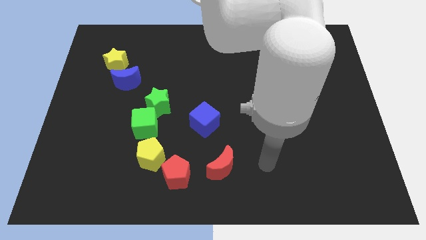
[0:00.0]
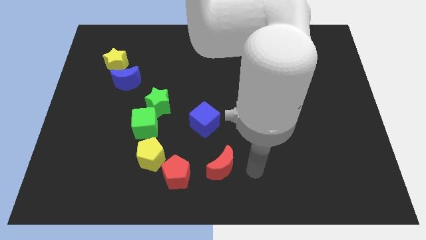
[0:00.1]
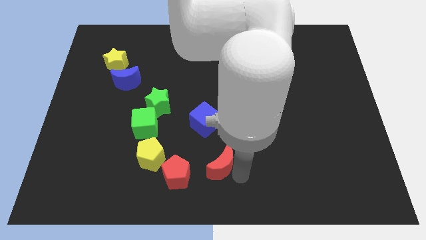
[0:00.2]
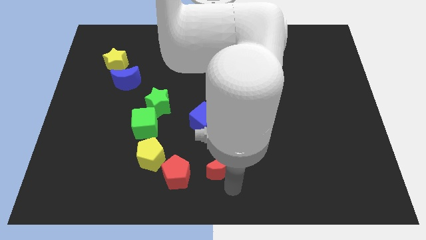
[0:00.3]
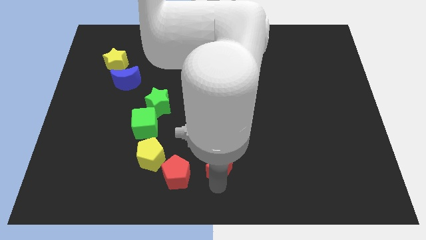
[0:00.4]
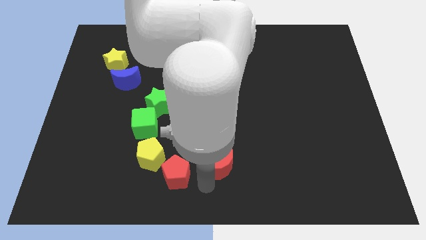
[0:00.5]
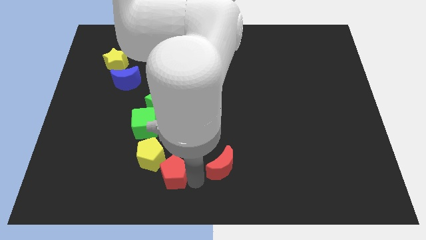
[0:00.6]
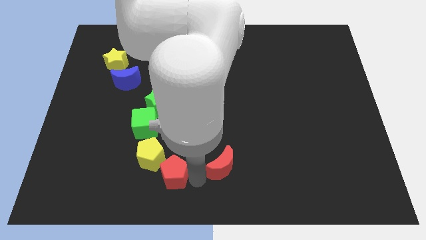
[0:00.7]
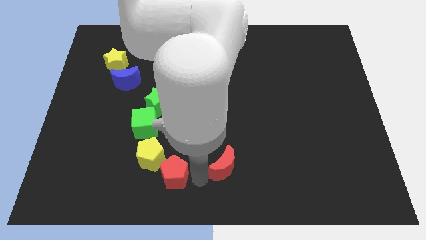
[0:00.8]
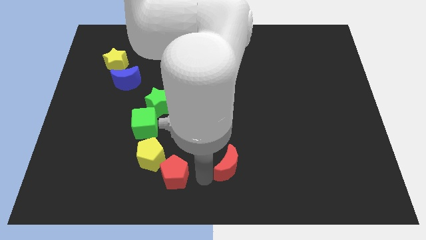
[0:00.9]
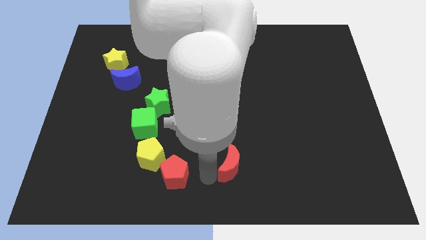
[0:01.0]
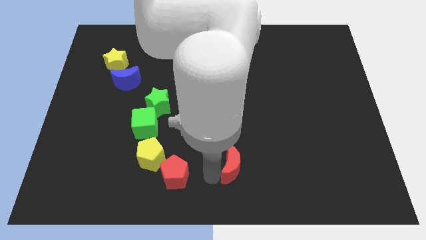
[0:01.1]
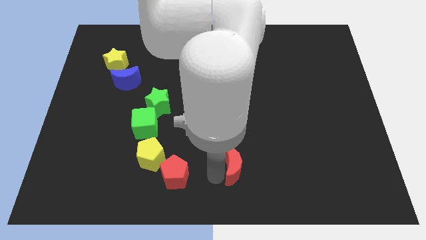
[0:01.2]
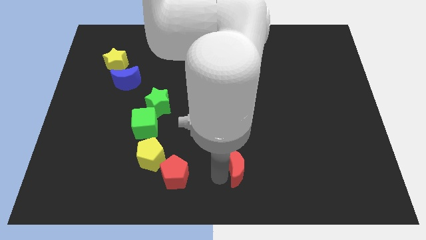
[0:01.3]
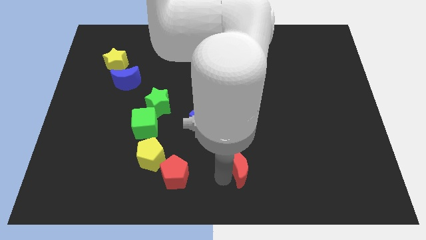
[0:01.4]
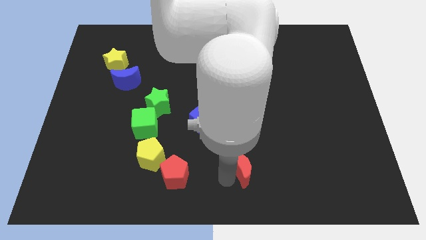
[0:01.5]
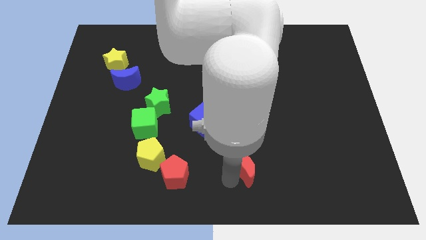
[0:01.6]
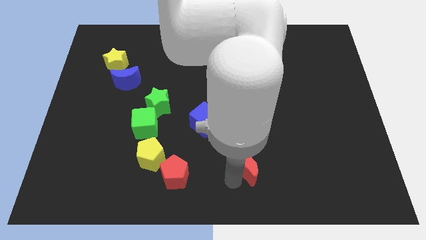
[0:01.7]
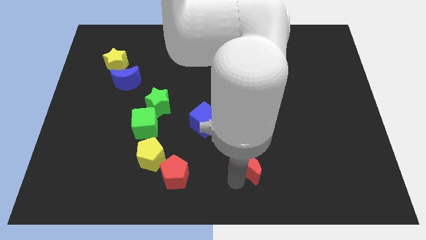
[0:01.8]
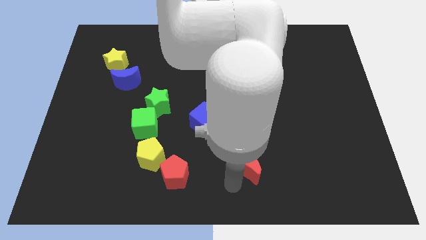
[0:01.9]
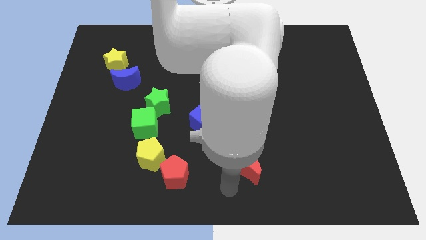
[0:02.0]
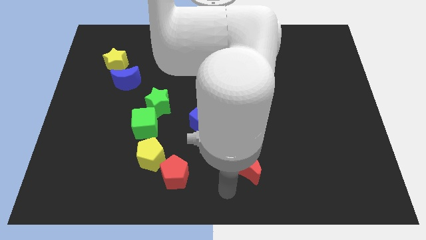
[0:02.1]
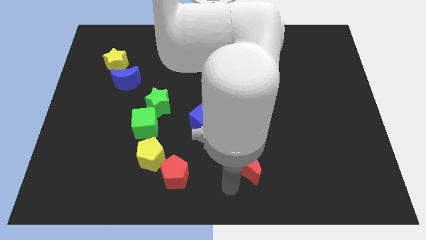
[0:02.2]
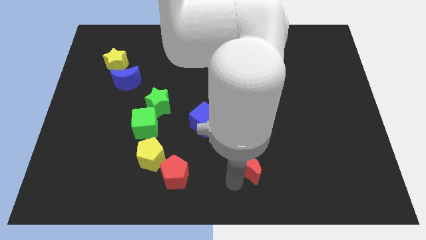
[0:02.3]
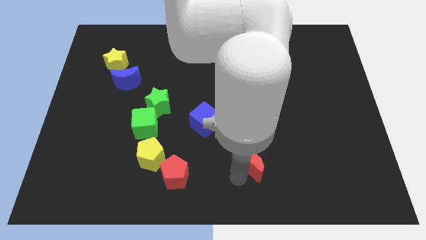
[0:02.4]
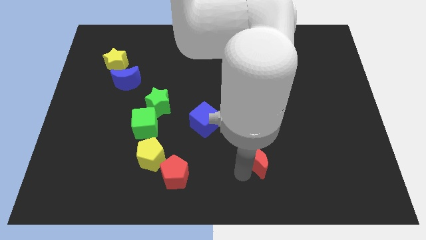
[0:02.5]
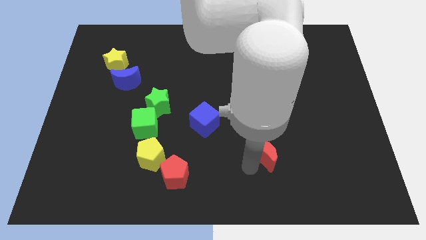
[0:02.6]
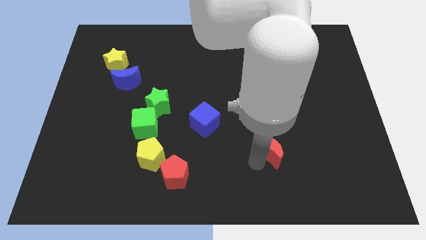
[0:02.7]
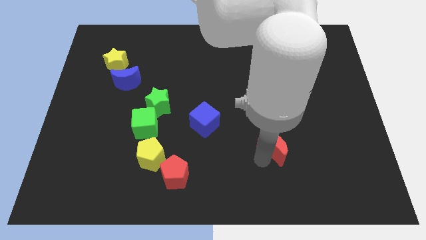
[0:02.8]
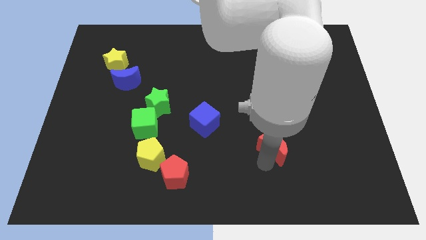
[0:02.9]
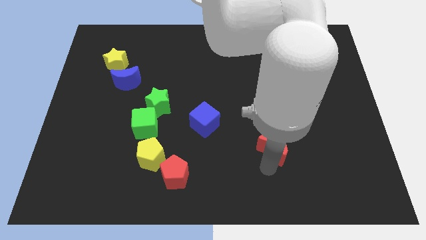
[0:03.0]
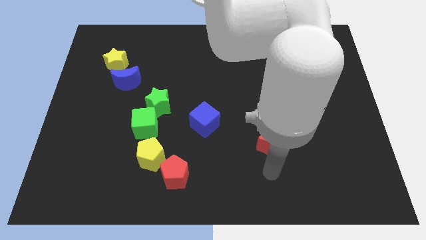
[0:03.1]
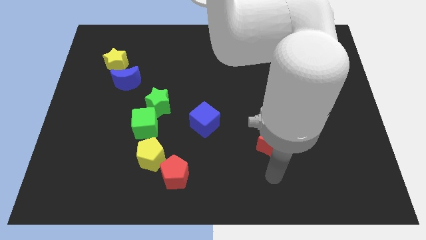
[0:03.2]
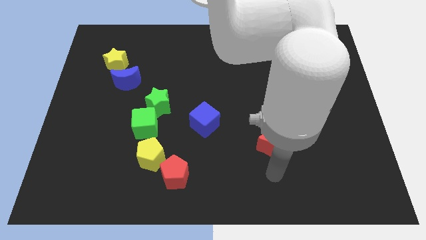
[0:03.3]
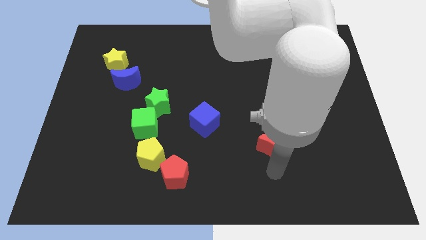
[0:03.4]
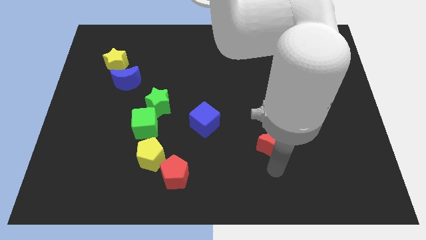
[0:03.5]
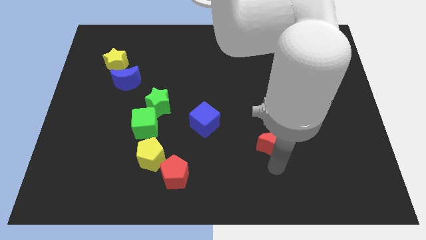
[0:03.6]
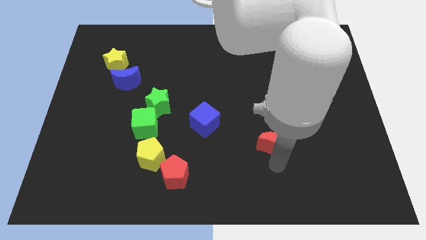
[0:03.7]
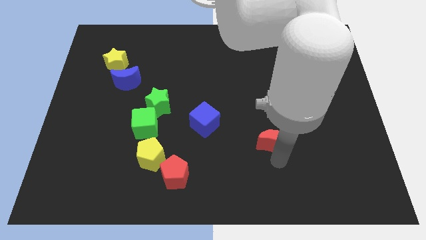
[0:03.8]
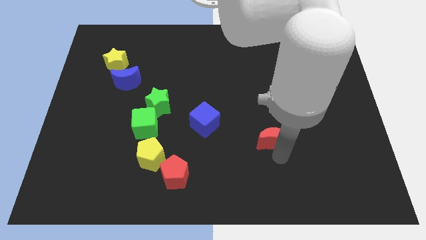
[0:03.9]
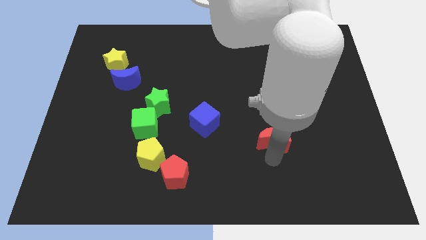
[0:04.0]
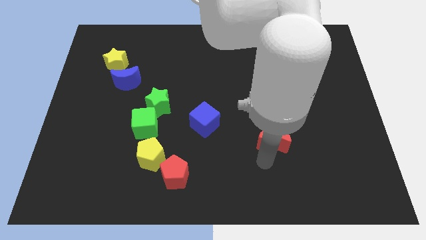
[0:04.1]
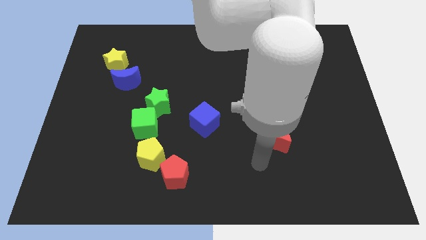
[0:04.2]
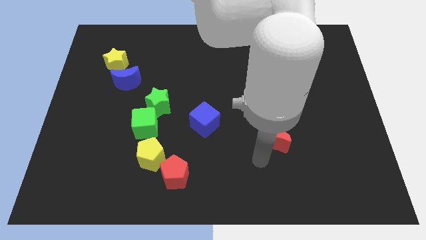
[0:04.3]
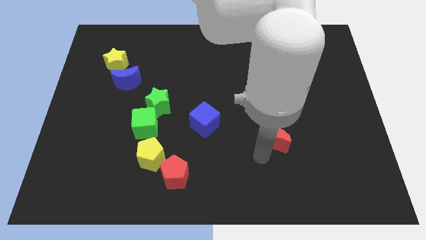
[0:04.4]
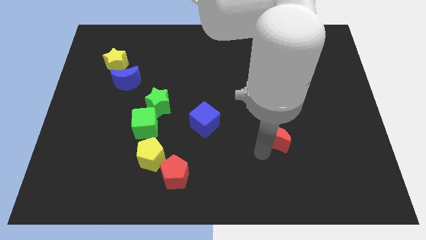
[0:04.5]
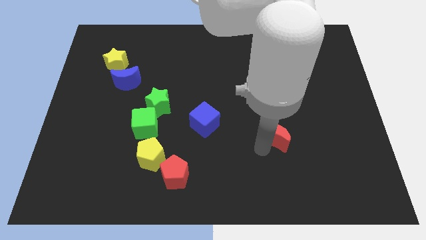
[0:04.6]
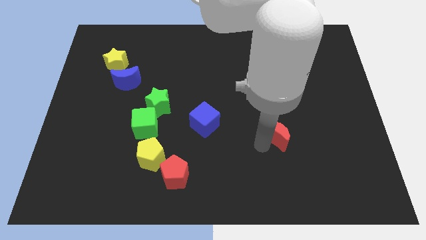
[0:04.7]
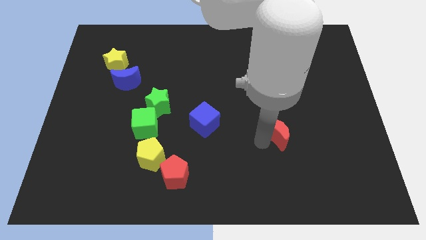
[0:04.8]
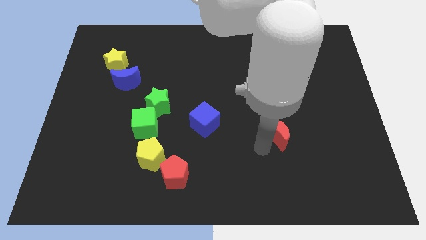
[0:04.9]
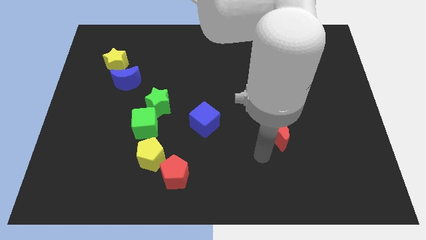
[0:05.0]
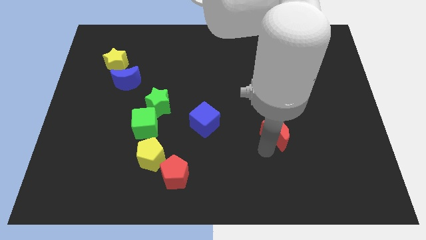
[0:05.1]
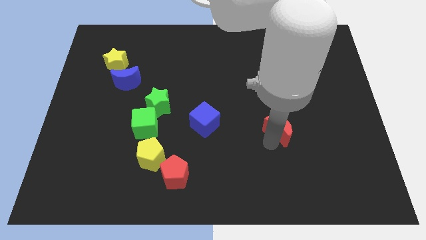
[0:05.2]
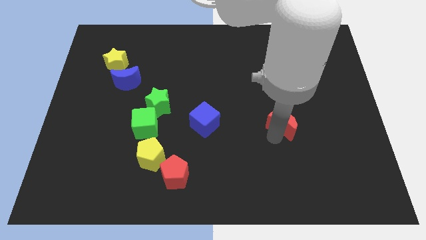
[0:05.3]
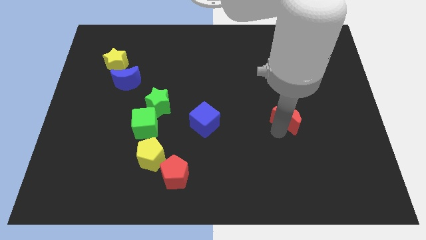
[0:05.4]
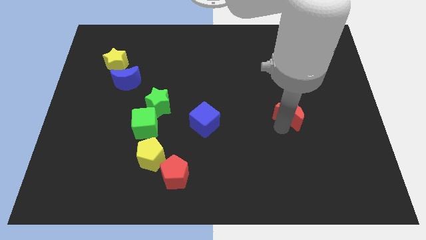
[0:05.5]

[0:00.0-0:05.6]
push the red moon upwards and to the right

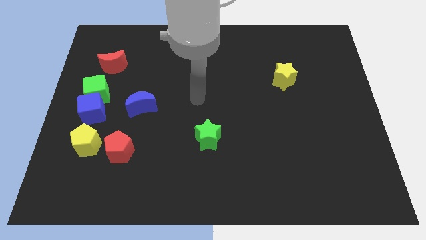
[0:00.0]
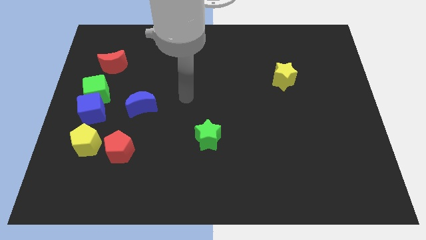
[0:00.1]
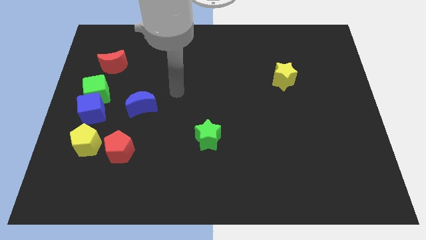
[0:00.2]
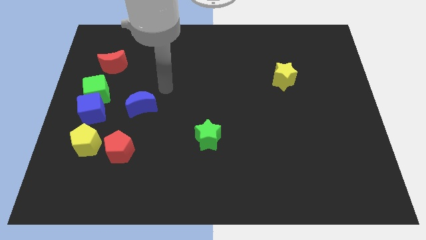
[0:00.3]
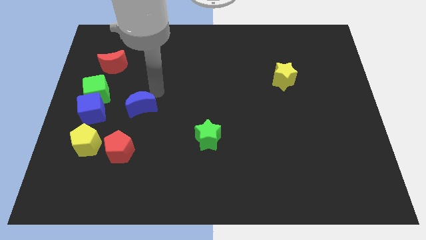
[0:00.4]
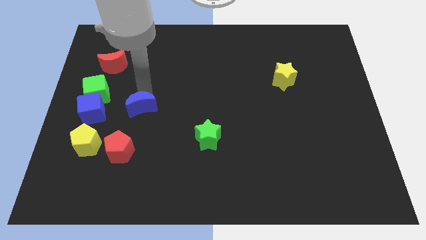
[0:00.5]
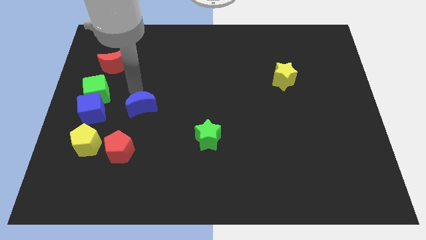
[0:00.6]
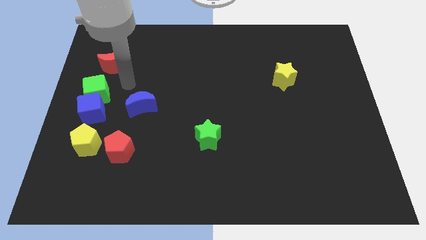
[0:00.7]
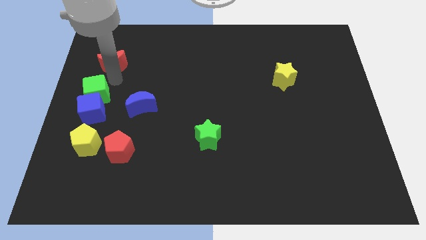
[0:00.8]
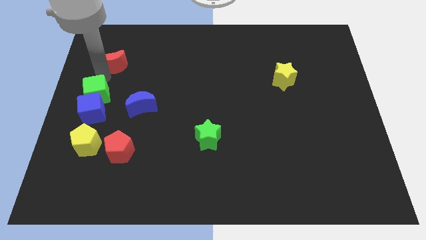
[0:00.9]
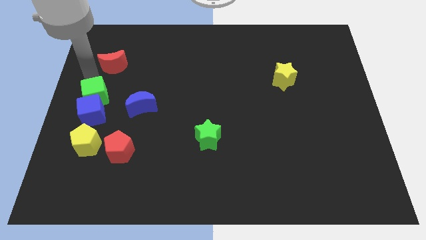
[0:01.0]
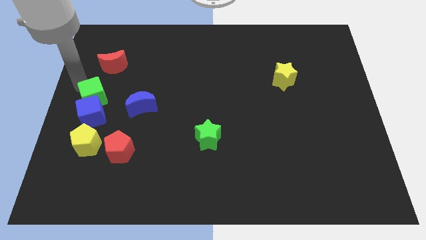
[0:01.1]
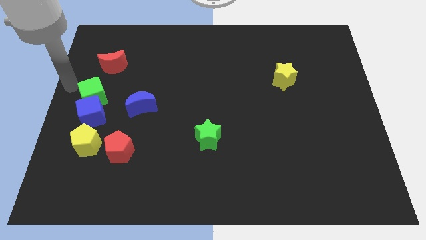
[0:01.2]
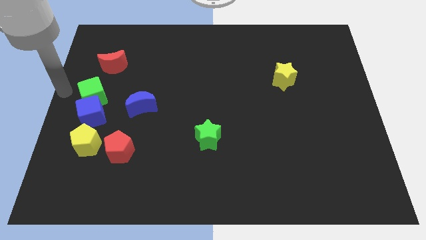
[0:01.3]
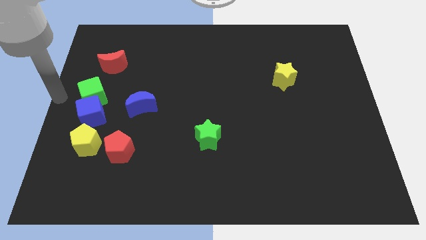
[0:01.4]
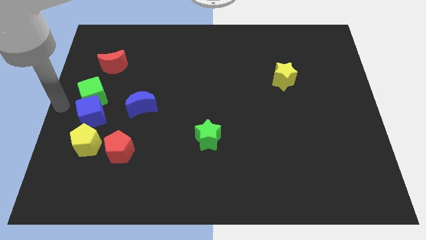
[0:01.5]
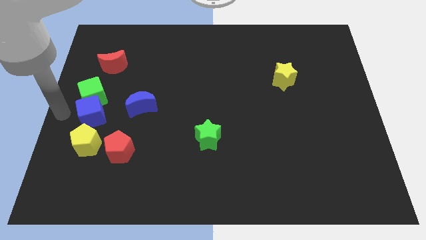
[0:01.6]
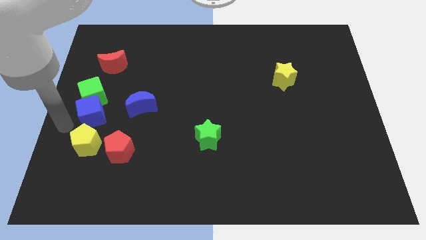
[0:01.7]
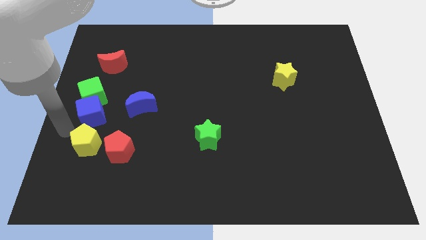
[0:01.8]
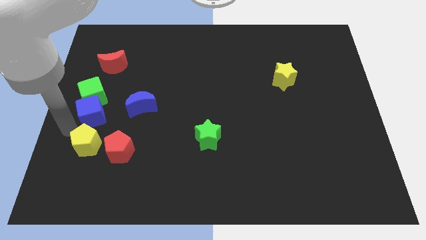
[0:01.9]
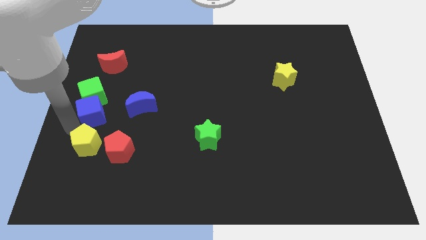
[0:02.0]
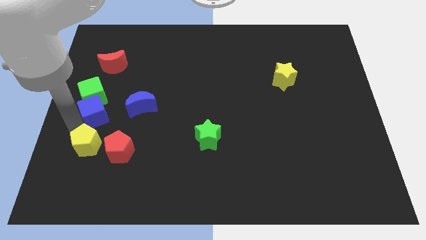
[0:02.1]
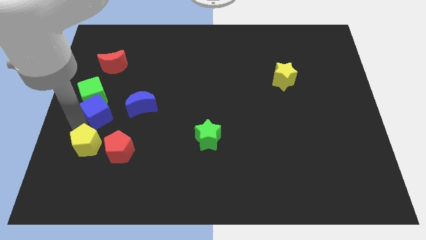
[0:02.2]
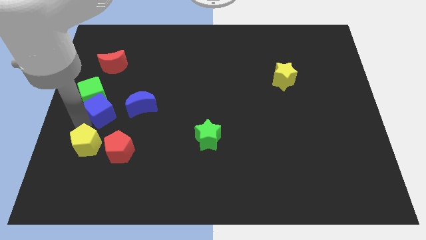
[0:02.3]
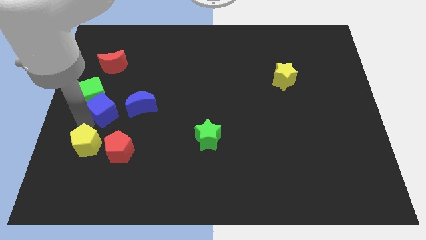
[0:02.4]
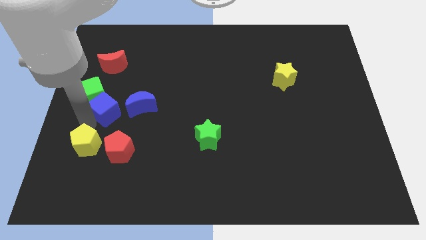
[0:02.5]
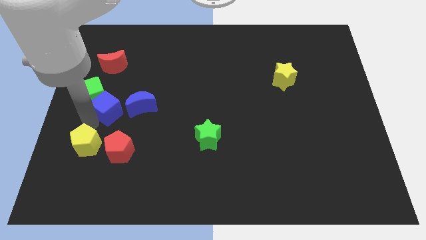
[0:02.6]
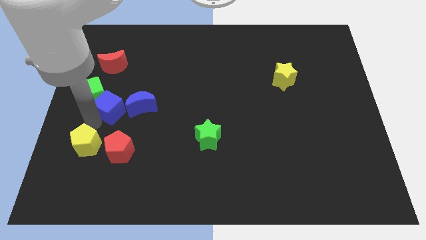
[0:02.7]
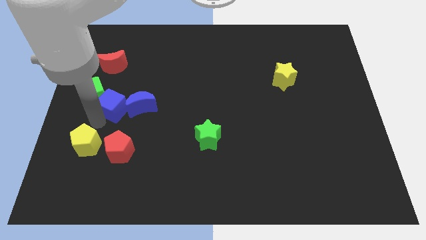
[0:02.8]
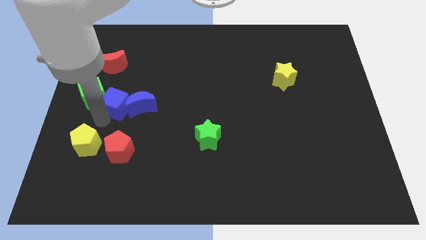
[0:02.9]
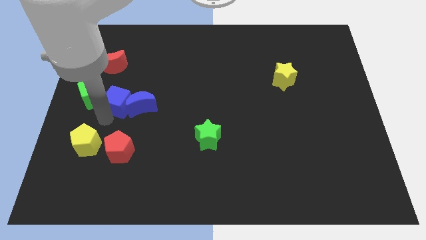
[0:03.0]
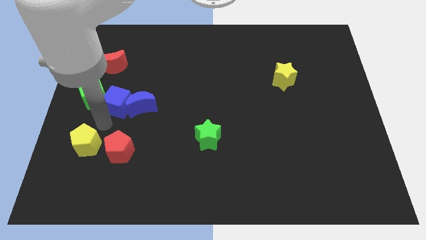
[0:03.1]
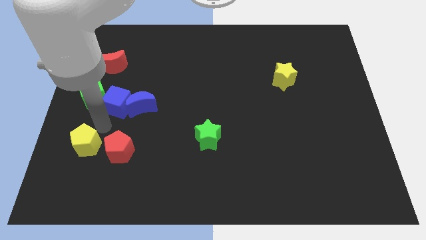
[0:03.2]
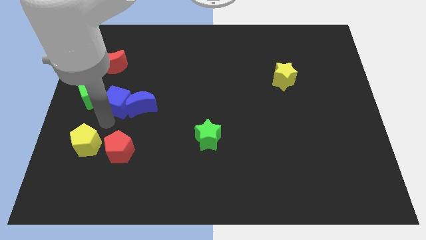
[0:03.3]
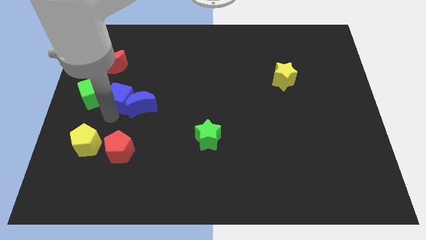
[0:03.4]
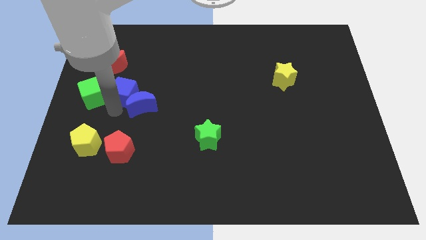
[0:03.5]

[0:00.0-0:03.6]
push the blue cube up and to the right somewhat
